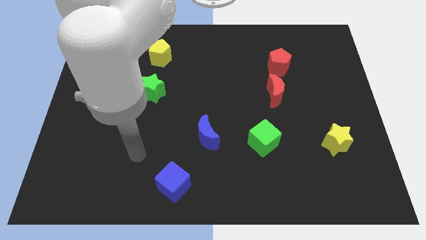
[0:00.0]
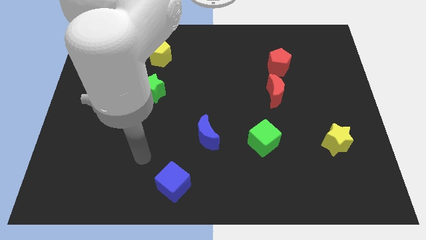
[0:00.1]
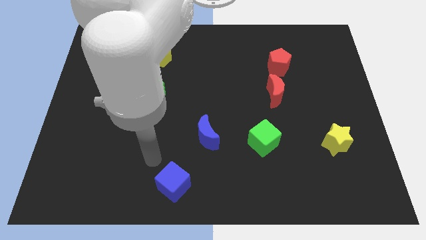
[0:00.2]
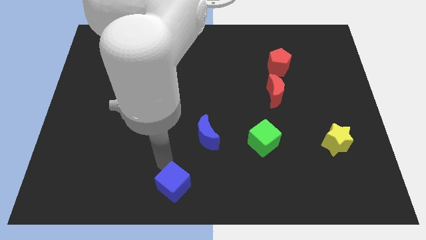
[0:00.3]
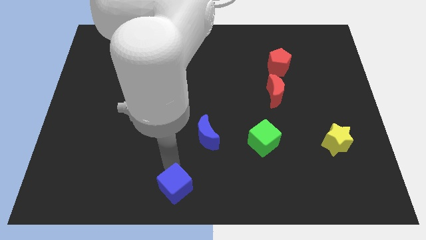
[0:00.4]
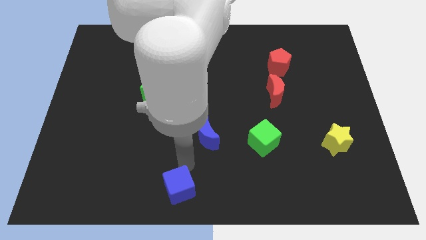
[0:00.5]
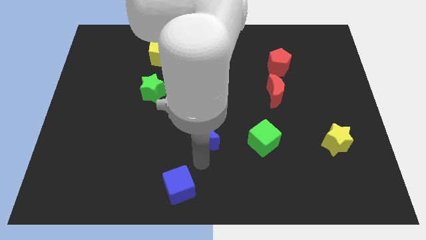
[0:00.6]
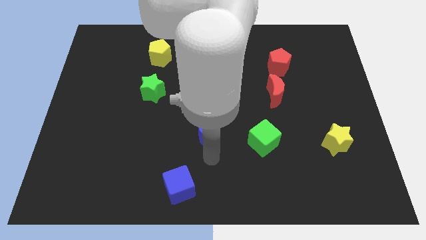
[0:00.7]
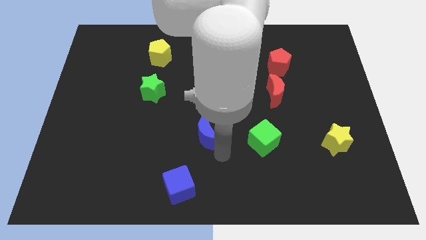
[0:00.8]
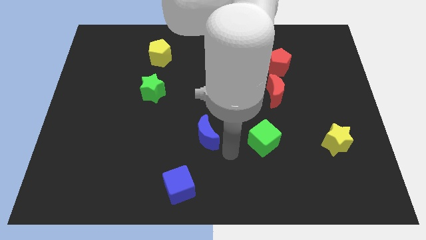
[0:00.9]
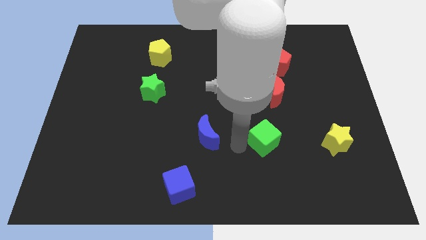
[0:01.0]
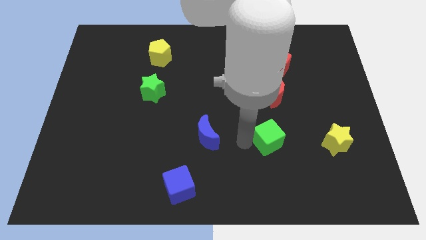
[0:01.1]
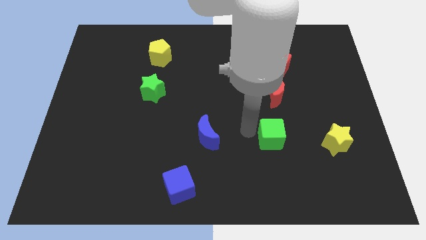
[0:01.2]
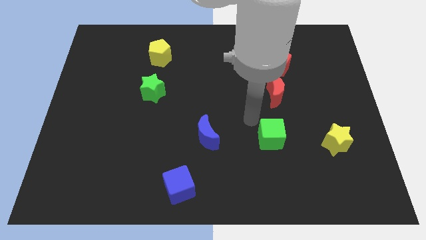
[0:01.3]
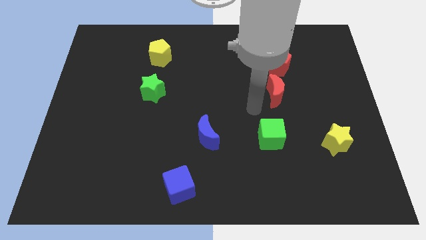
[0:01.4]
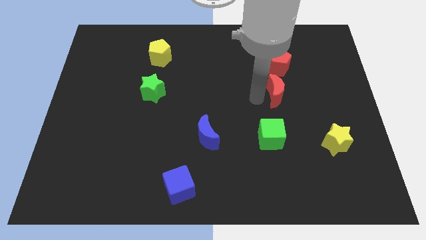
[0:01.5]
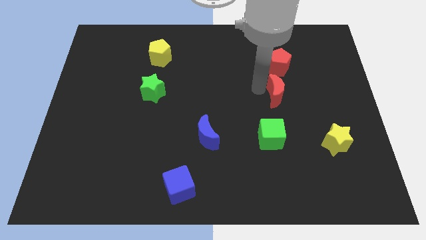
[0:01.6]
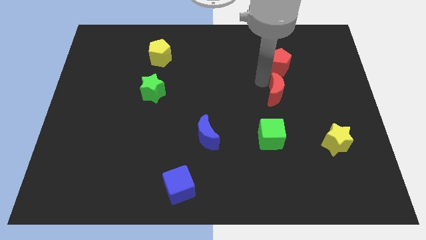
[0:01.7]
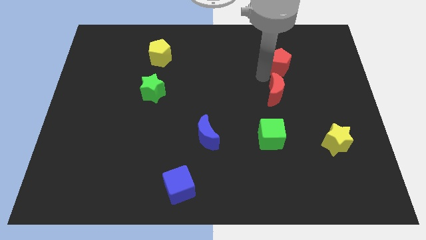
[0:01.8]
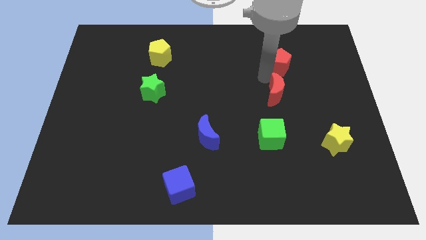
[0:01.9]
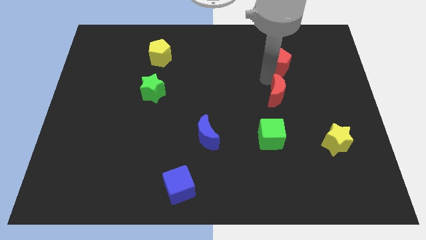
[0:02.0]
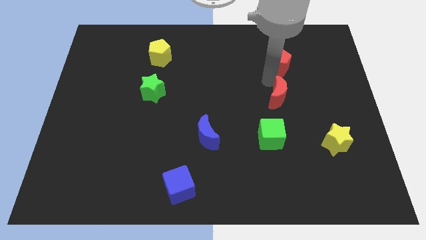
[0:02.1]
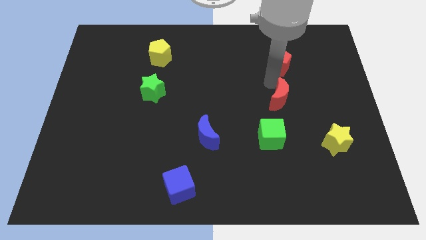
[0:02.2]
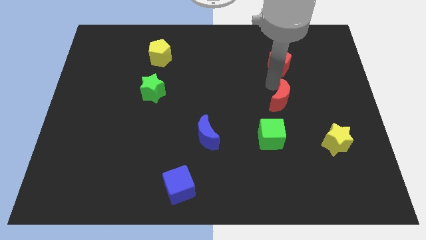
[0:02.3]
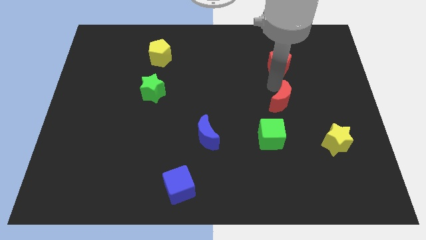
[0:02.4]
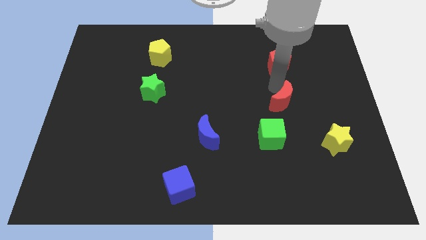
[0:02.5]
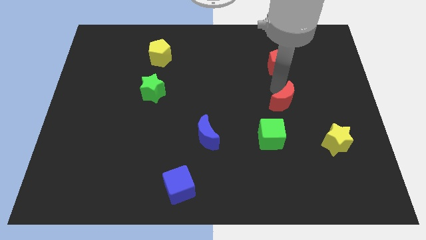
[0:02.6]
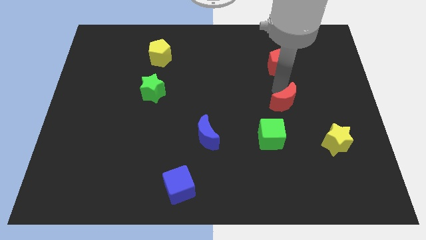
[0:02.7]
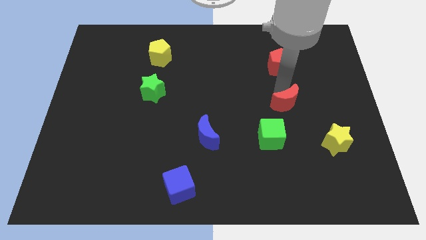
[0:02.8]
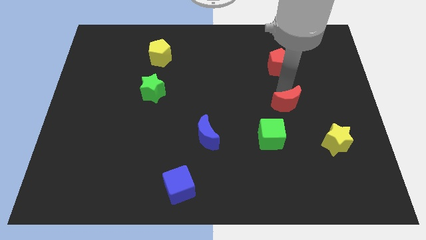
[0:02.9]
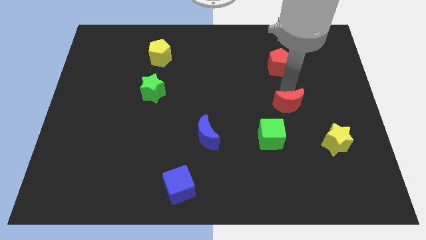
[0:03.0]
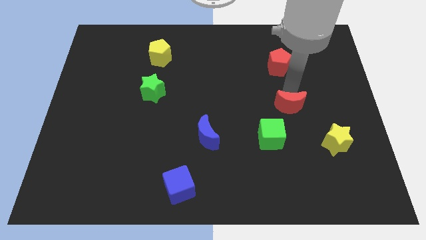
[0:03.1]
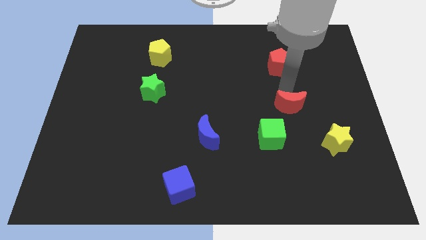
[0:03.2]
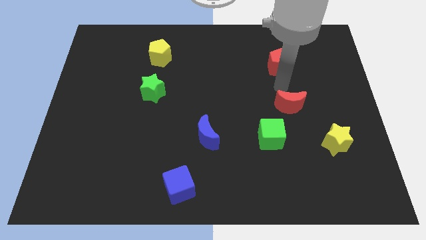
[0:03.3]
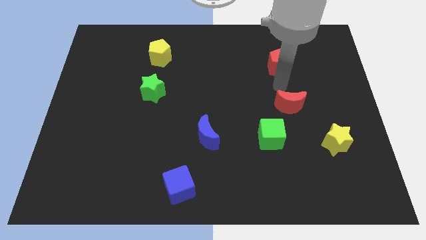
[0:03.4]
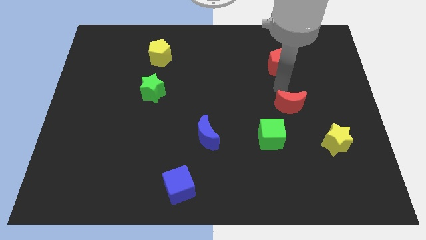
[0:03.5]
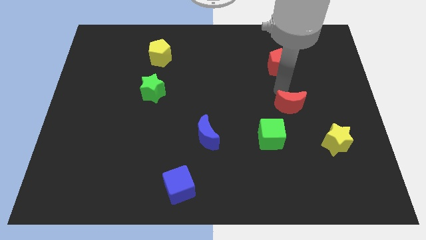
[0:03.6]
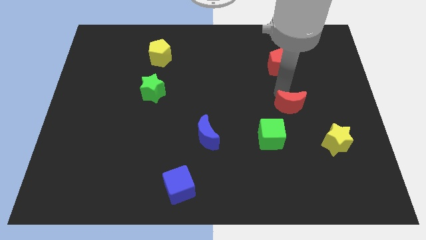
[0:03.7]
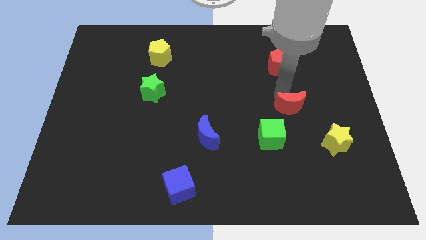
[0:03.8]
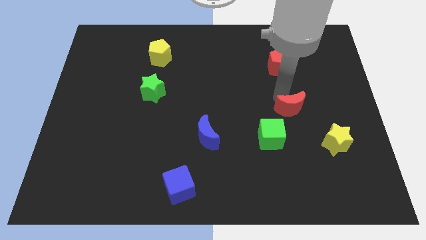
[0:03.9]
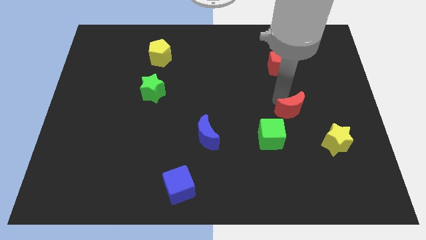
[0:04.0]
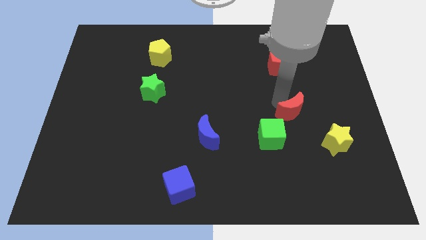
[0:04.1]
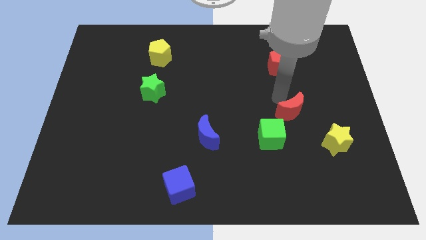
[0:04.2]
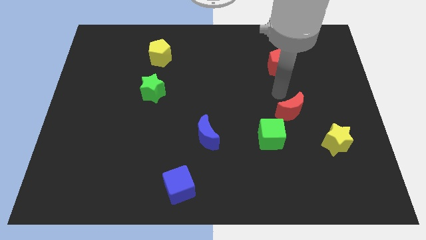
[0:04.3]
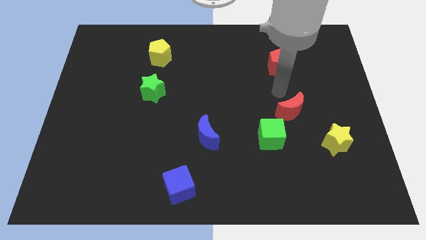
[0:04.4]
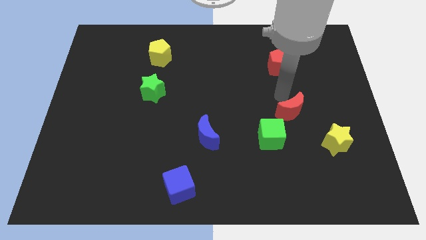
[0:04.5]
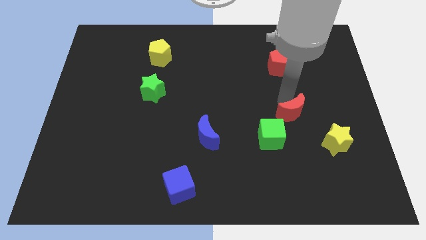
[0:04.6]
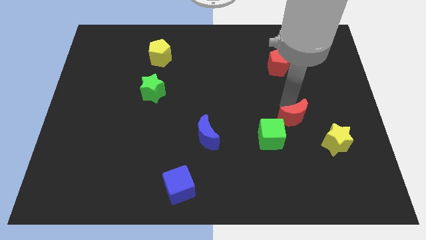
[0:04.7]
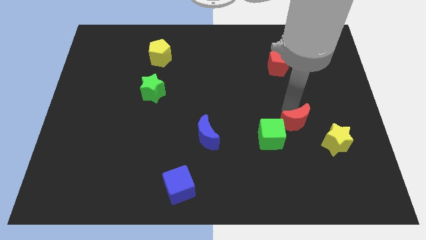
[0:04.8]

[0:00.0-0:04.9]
push the red moon right of the green cube

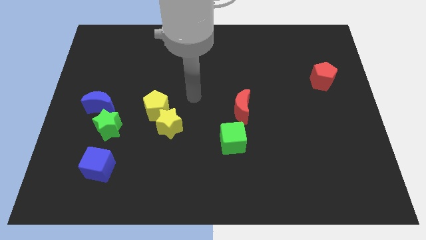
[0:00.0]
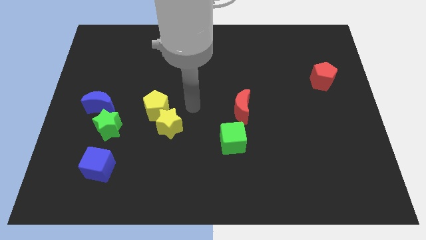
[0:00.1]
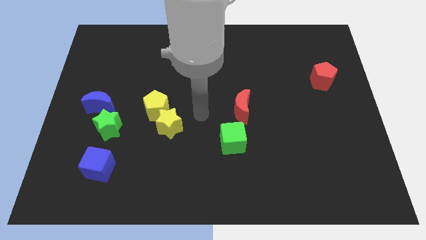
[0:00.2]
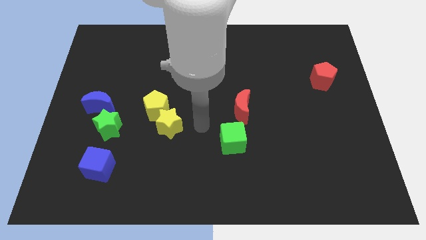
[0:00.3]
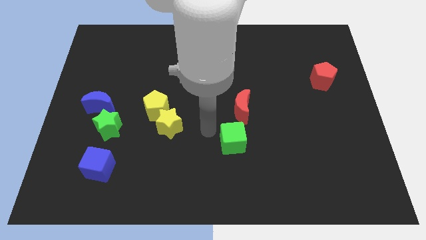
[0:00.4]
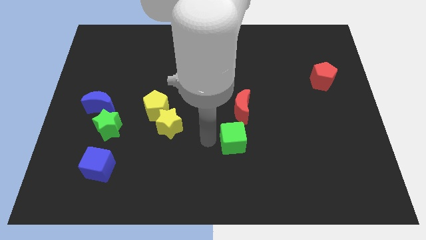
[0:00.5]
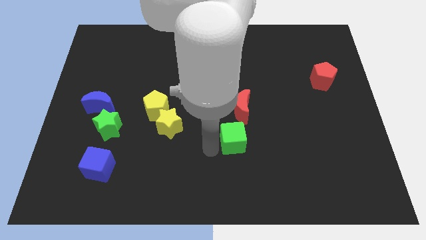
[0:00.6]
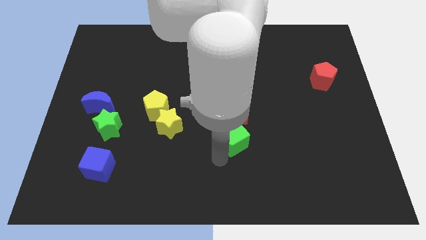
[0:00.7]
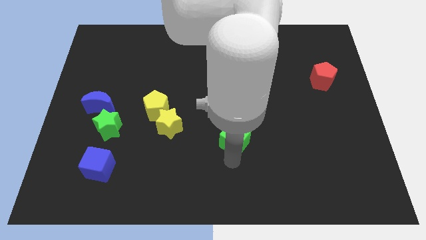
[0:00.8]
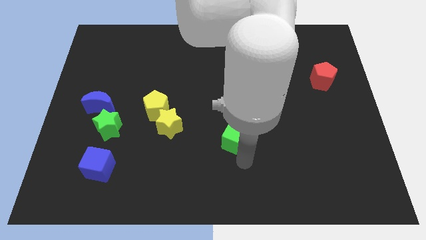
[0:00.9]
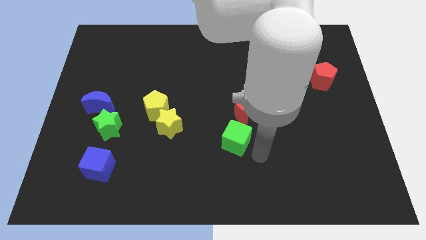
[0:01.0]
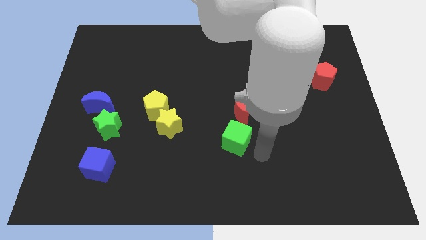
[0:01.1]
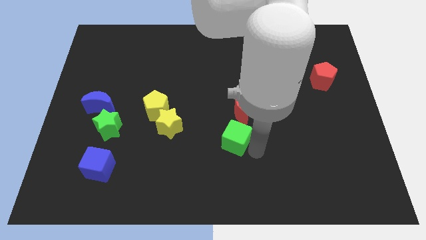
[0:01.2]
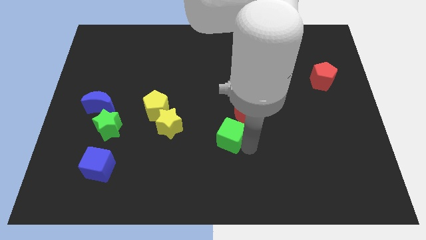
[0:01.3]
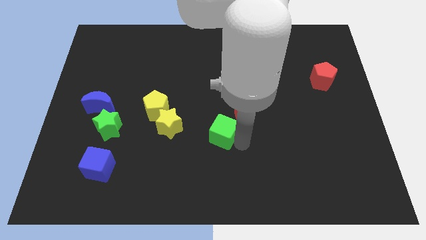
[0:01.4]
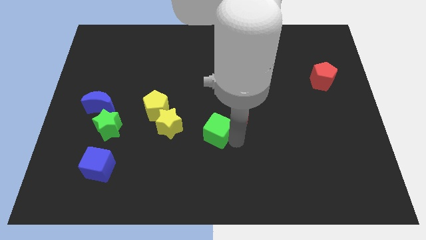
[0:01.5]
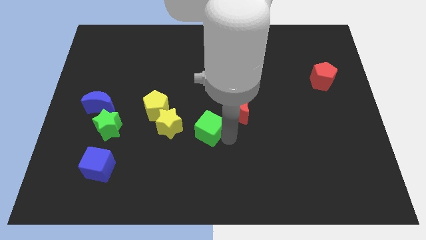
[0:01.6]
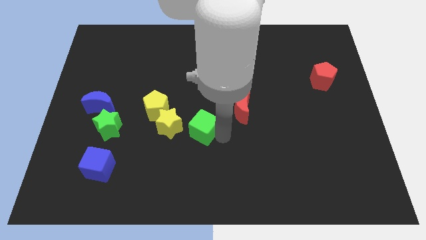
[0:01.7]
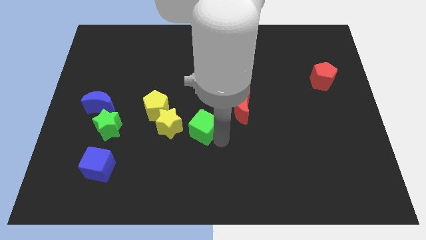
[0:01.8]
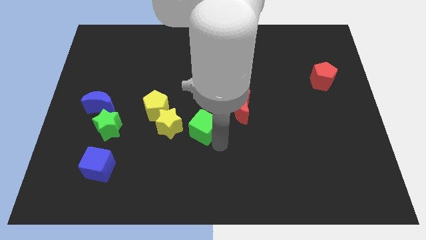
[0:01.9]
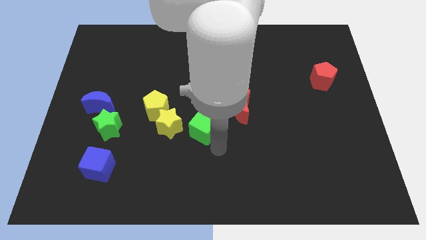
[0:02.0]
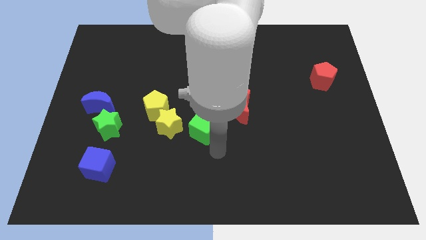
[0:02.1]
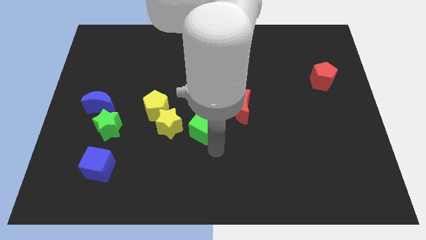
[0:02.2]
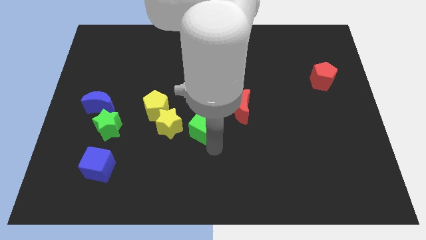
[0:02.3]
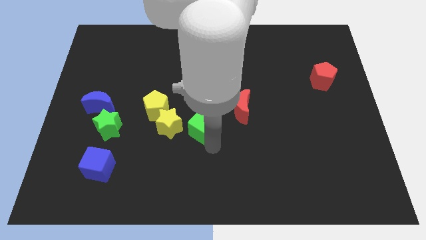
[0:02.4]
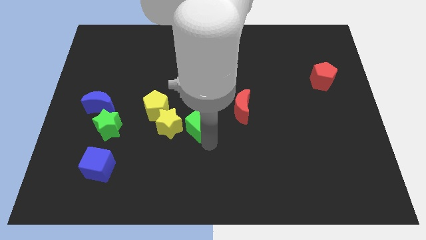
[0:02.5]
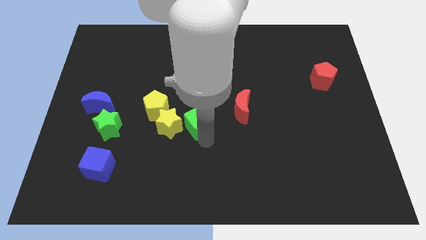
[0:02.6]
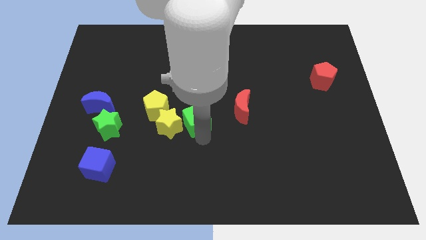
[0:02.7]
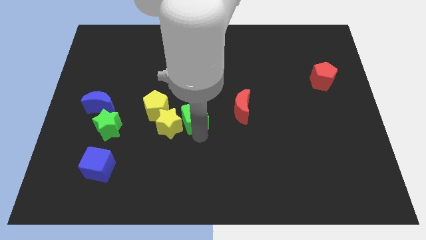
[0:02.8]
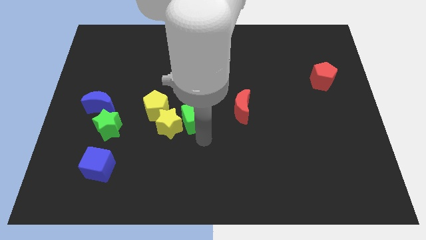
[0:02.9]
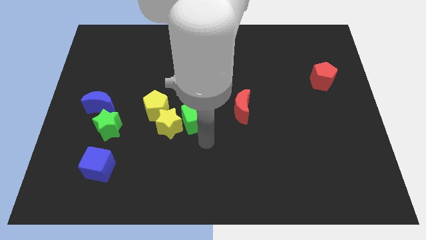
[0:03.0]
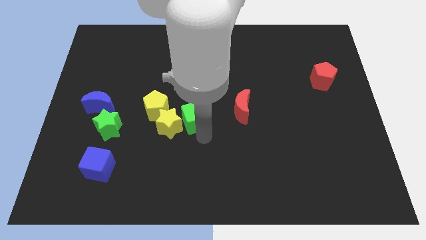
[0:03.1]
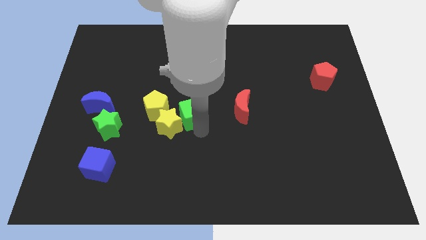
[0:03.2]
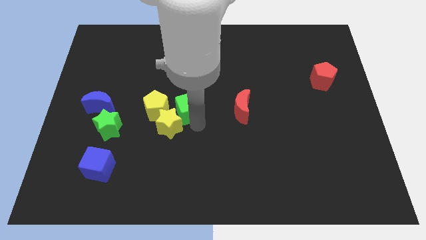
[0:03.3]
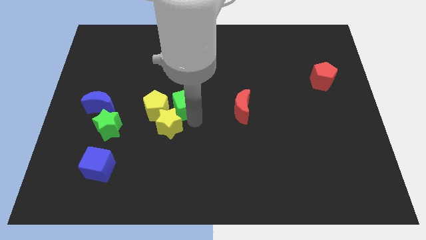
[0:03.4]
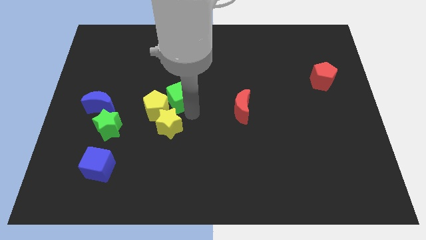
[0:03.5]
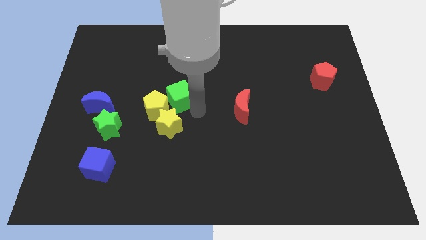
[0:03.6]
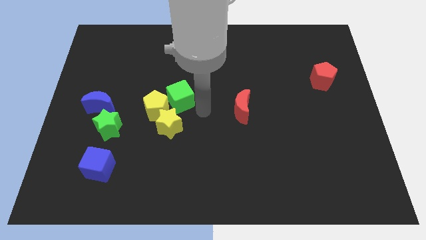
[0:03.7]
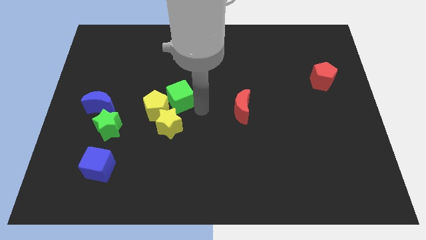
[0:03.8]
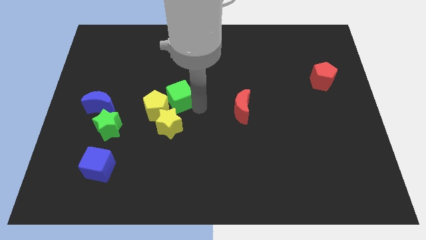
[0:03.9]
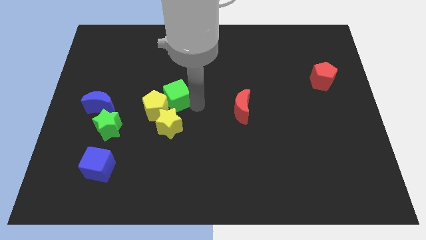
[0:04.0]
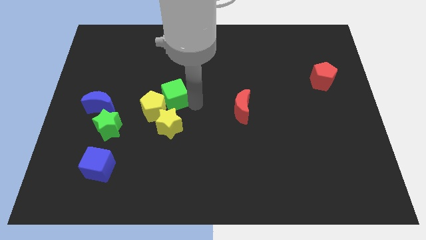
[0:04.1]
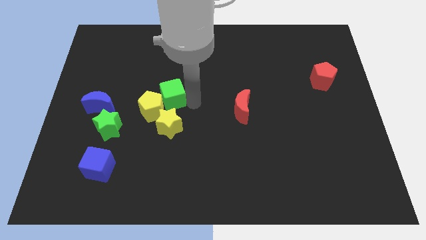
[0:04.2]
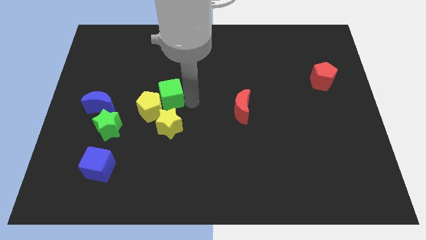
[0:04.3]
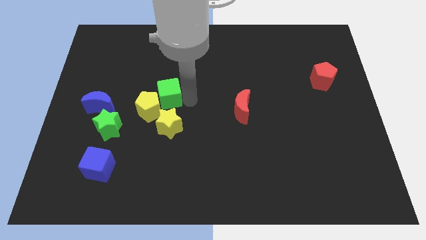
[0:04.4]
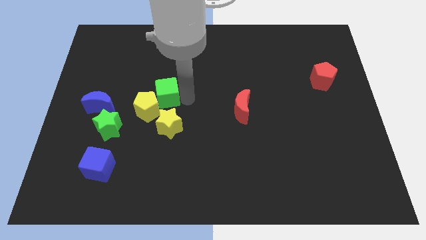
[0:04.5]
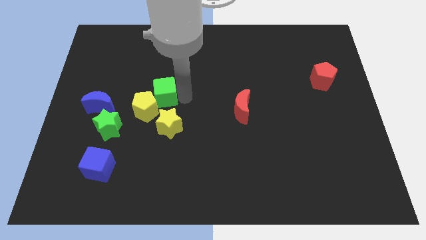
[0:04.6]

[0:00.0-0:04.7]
move the green cube diagonally up and to the left of the yellow star
